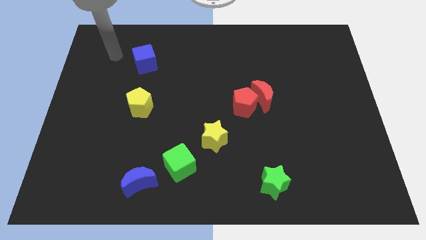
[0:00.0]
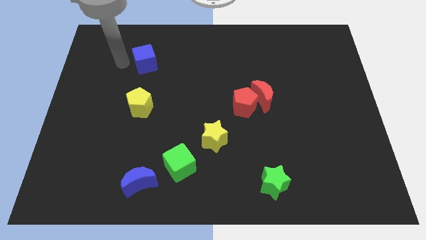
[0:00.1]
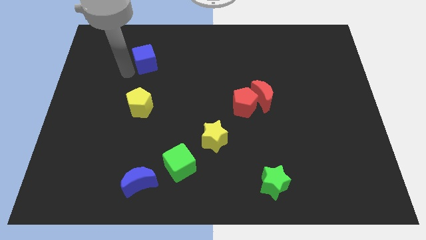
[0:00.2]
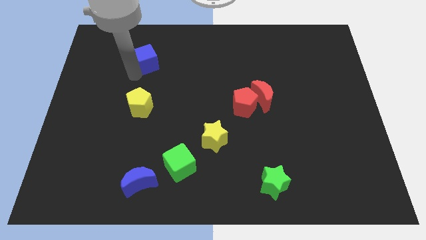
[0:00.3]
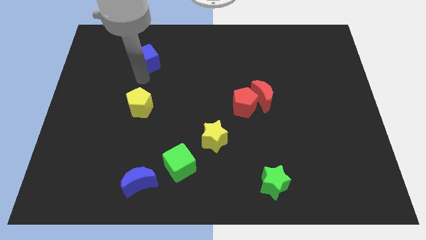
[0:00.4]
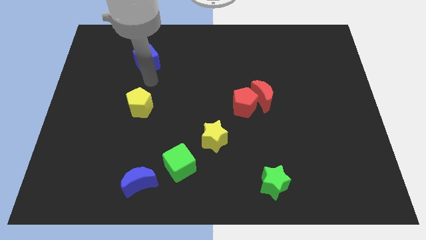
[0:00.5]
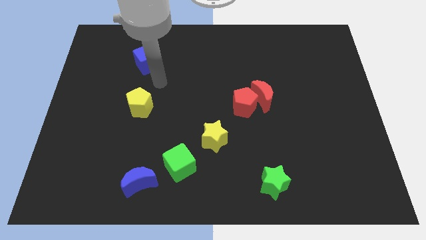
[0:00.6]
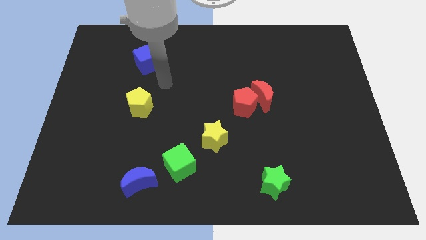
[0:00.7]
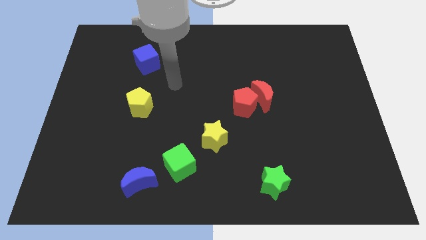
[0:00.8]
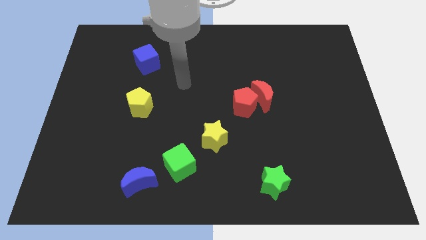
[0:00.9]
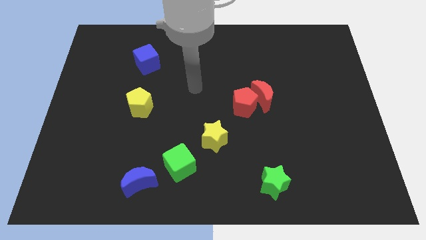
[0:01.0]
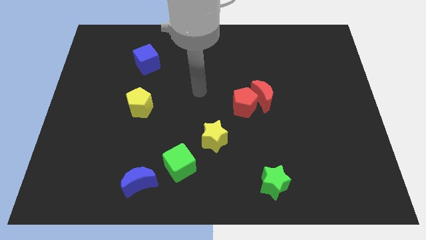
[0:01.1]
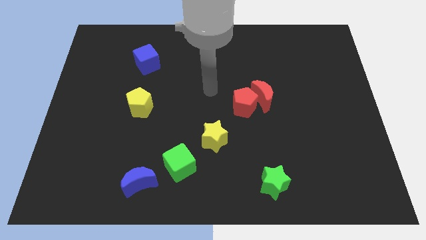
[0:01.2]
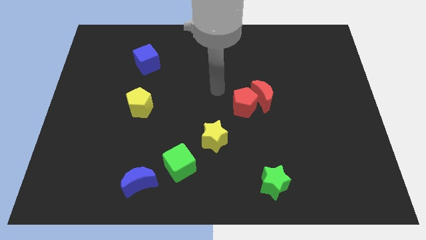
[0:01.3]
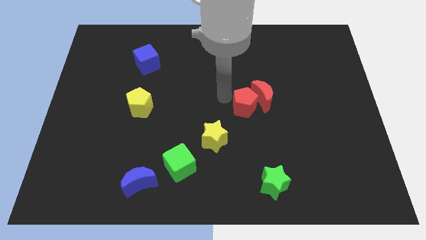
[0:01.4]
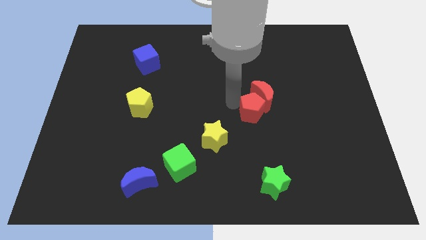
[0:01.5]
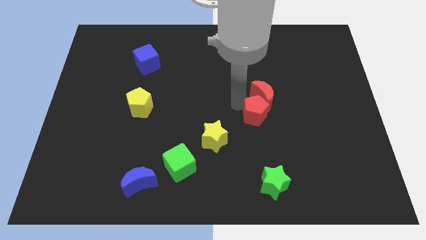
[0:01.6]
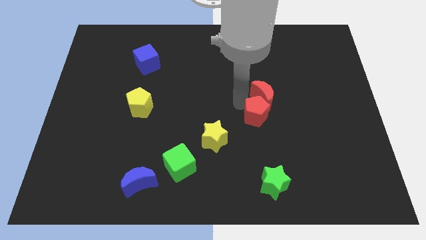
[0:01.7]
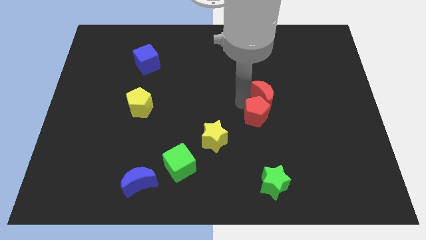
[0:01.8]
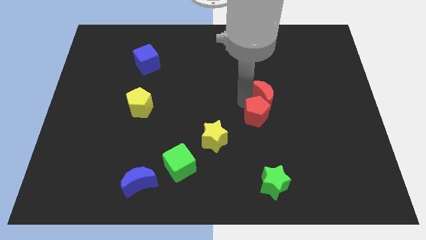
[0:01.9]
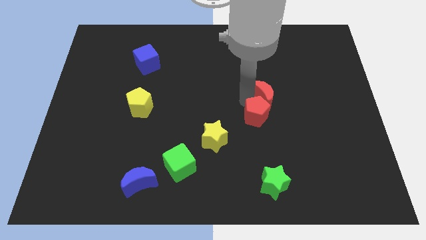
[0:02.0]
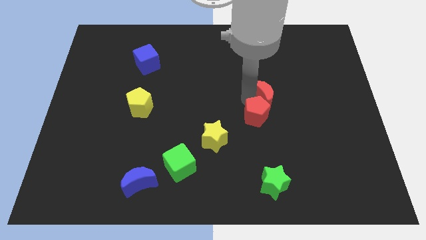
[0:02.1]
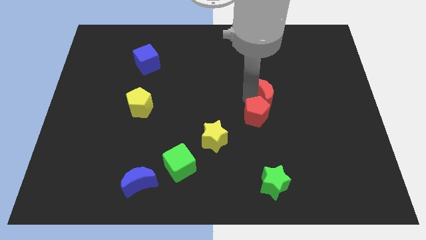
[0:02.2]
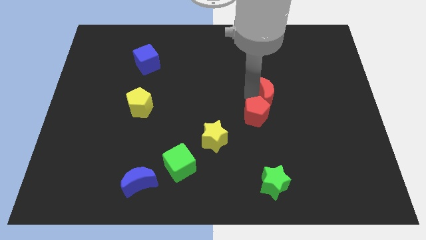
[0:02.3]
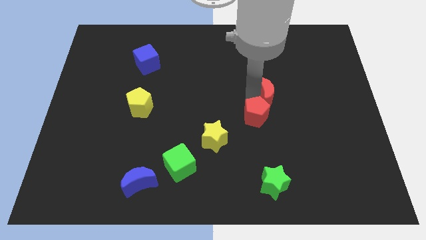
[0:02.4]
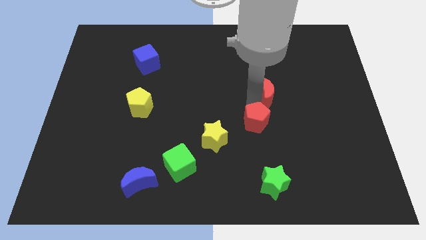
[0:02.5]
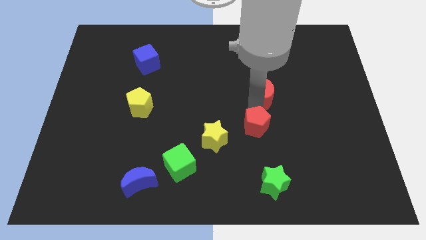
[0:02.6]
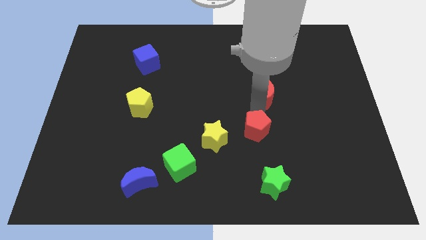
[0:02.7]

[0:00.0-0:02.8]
pull the red moon apart from the red pentagon

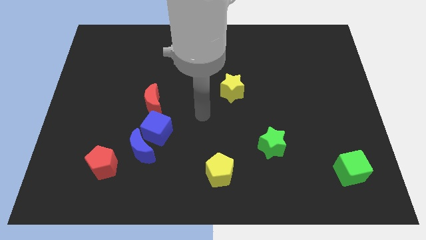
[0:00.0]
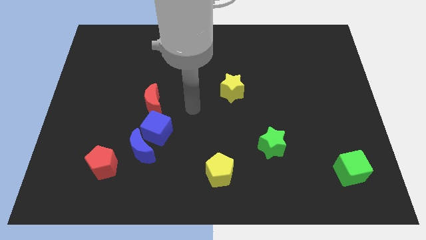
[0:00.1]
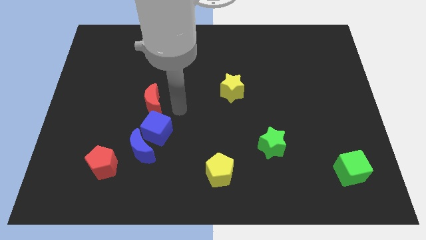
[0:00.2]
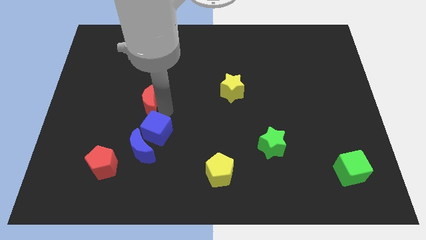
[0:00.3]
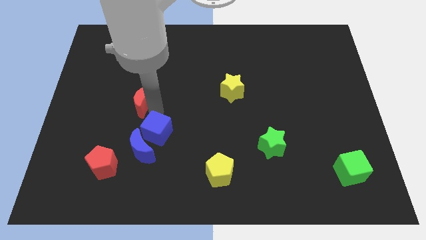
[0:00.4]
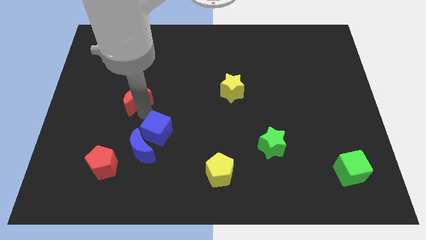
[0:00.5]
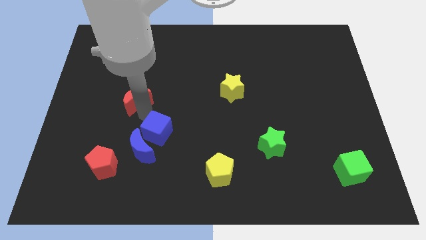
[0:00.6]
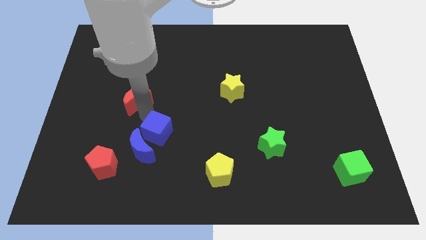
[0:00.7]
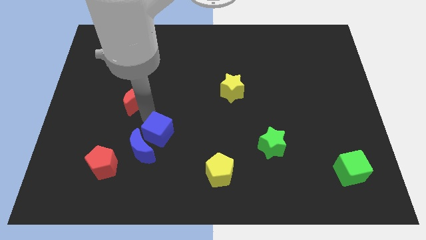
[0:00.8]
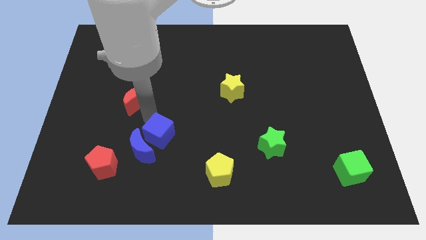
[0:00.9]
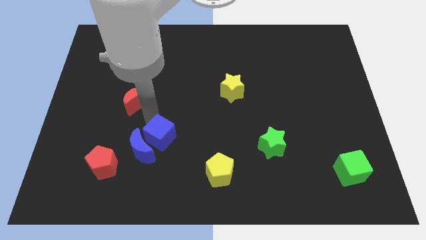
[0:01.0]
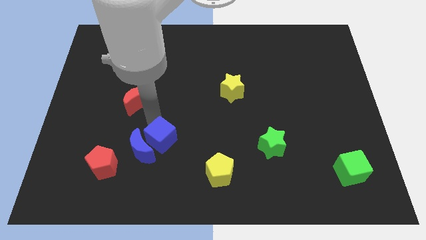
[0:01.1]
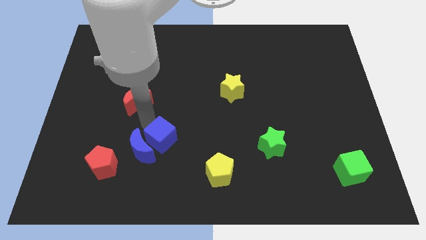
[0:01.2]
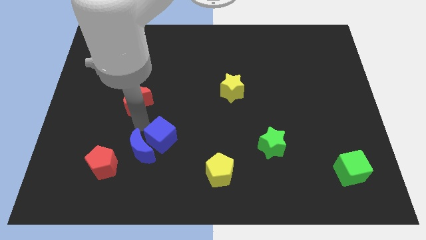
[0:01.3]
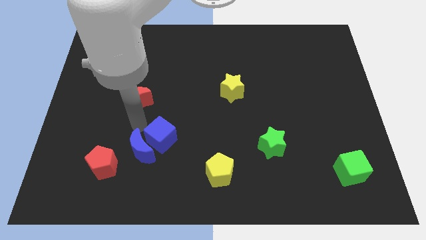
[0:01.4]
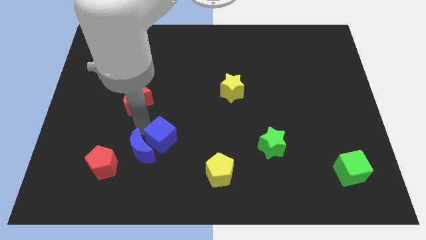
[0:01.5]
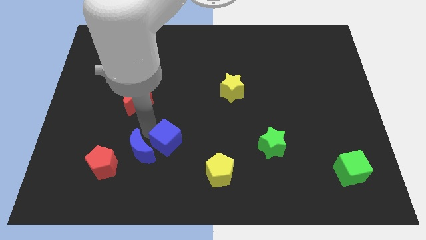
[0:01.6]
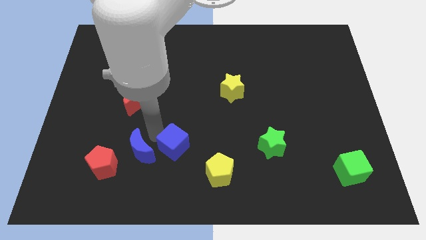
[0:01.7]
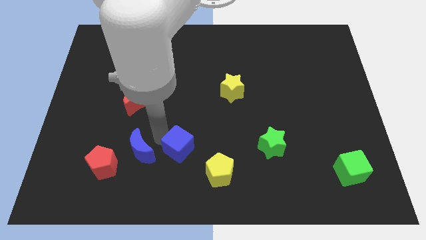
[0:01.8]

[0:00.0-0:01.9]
pull the blue cube apart from the blue moon and red moon

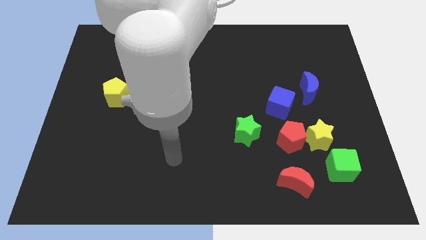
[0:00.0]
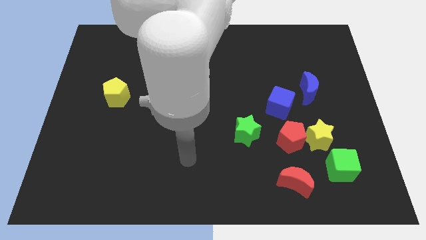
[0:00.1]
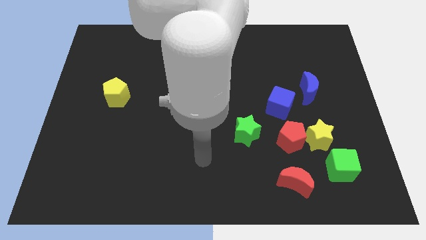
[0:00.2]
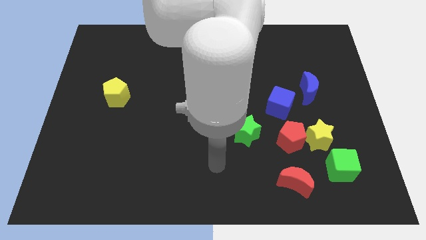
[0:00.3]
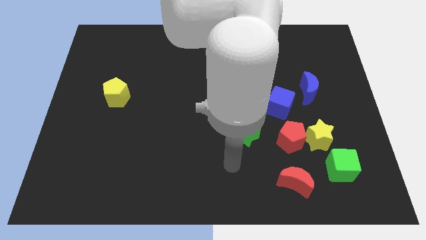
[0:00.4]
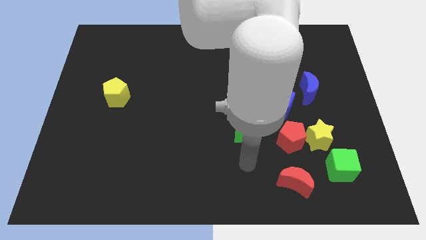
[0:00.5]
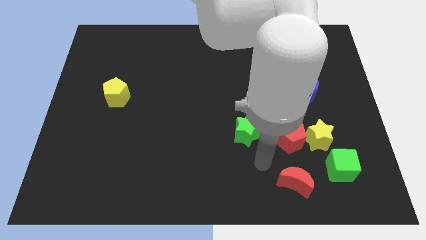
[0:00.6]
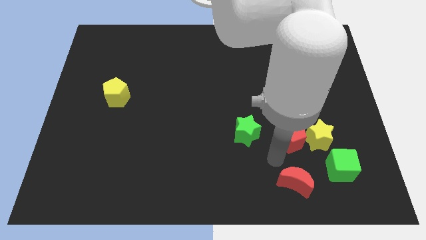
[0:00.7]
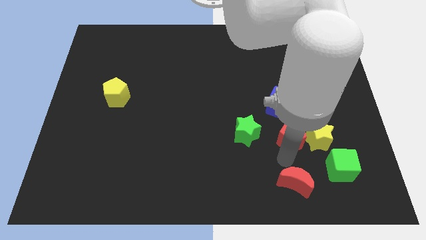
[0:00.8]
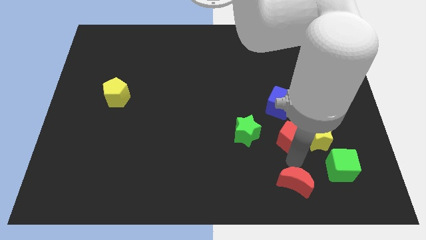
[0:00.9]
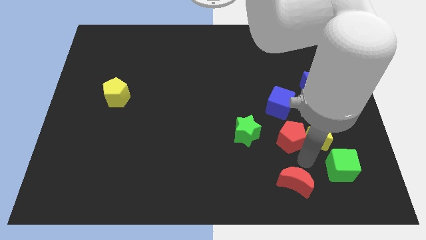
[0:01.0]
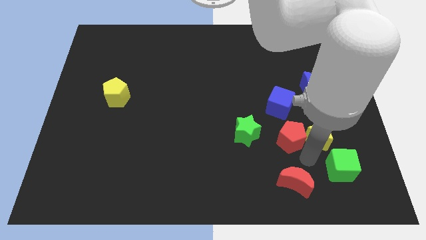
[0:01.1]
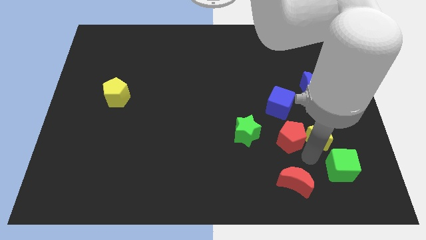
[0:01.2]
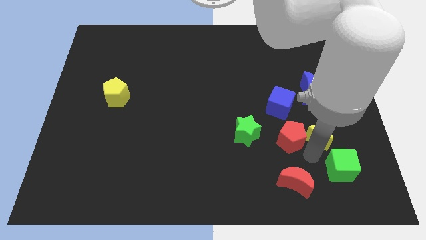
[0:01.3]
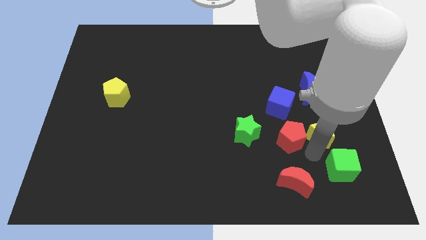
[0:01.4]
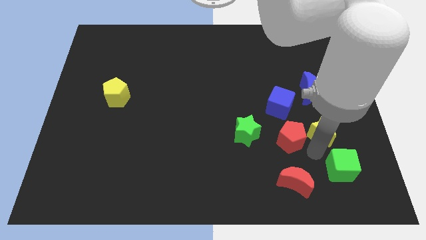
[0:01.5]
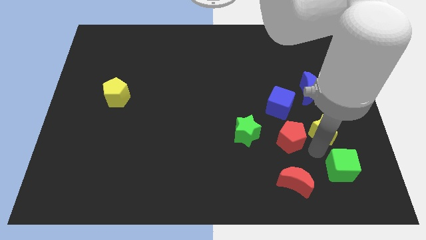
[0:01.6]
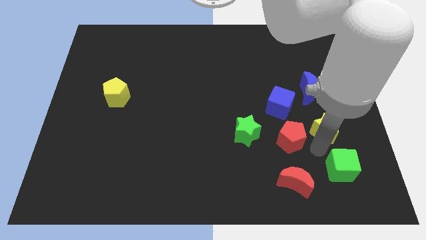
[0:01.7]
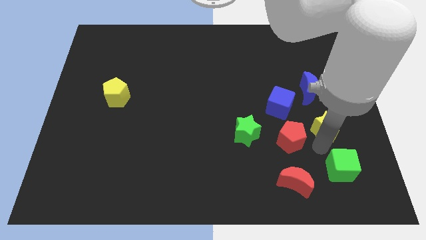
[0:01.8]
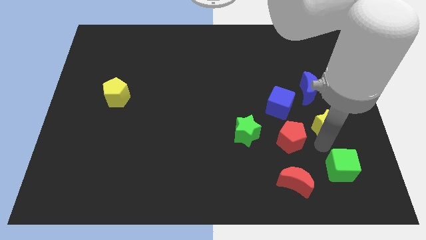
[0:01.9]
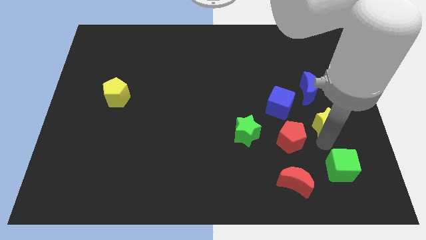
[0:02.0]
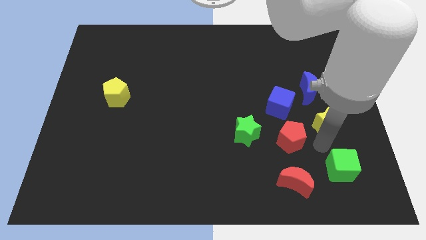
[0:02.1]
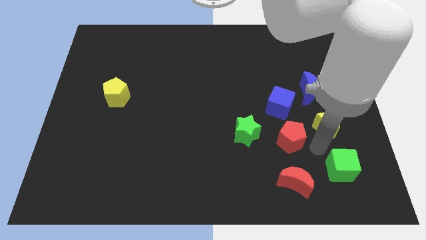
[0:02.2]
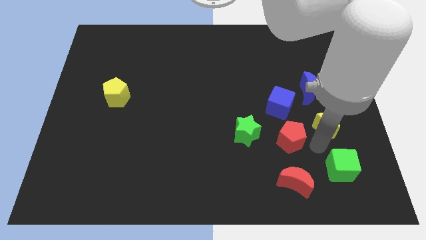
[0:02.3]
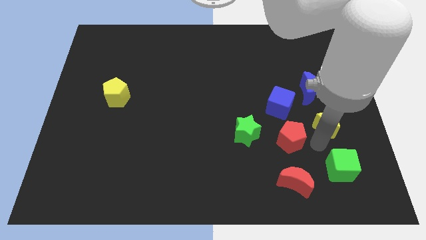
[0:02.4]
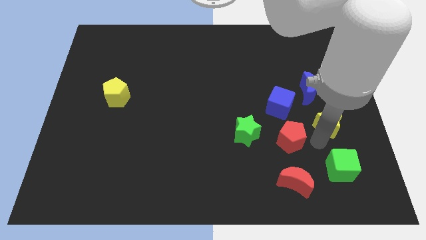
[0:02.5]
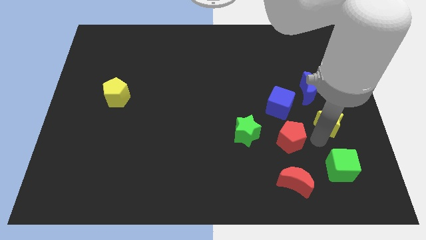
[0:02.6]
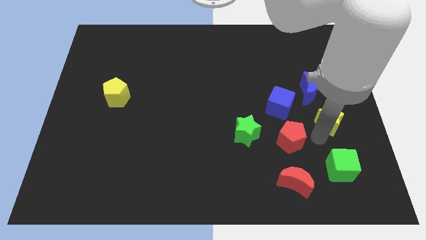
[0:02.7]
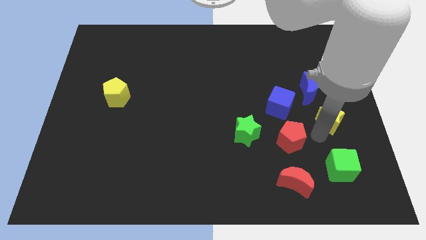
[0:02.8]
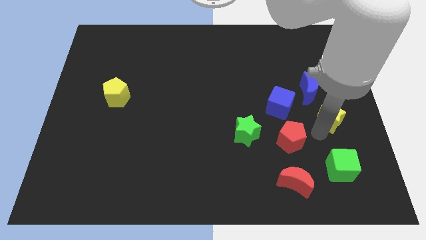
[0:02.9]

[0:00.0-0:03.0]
pull the yellow star apart from the red pentagon and green cube

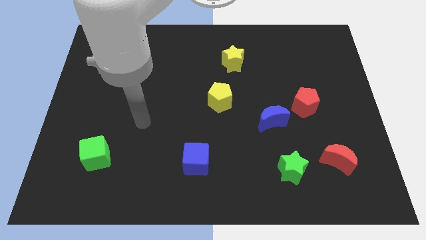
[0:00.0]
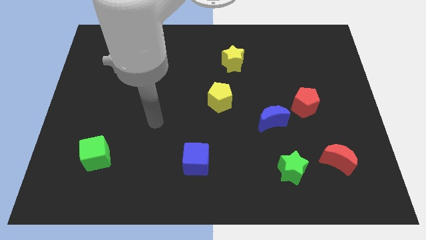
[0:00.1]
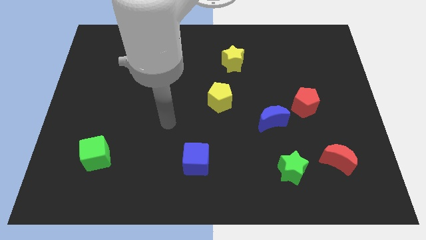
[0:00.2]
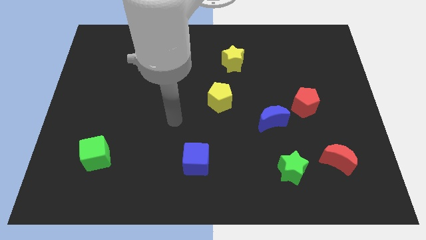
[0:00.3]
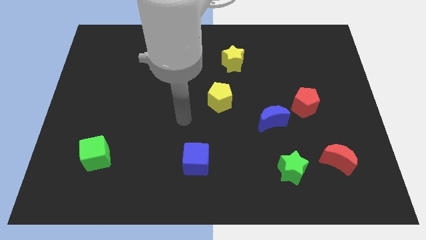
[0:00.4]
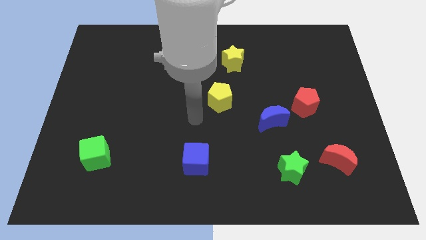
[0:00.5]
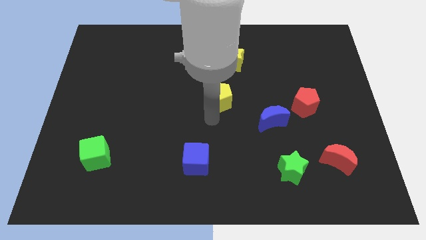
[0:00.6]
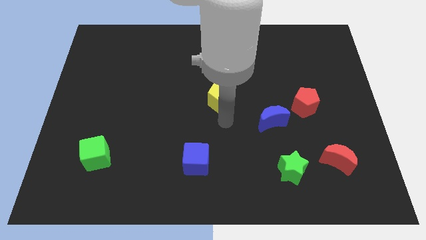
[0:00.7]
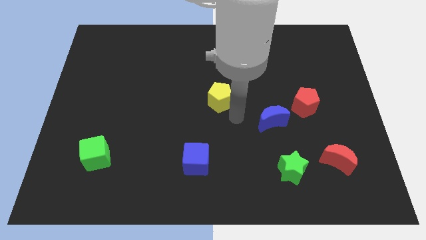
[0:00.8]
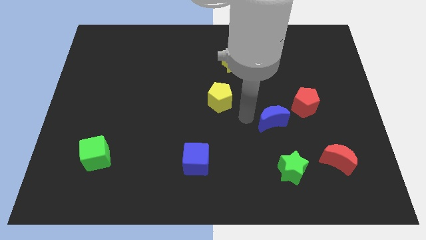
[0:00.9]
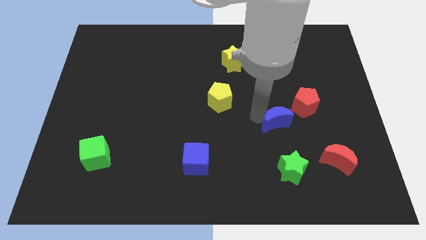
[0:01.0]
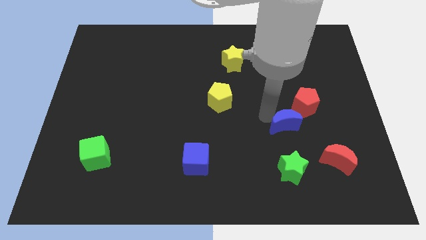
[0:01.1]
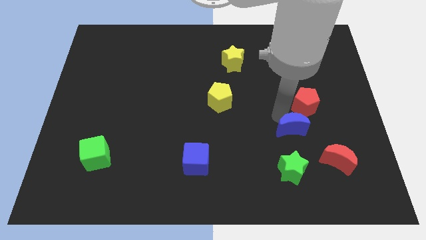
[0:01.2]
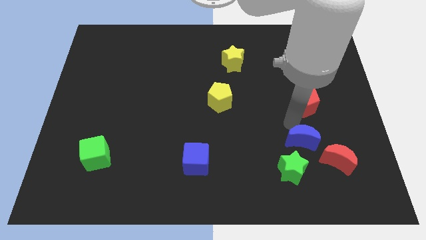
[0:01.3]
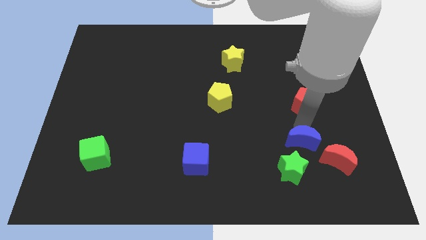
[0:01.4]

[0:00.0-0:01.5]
move the red pentagon away from the blue moon

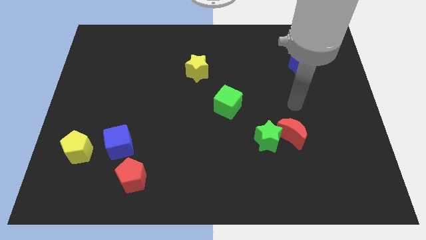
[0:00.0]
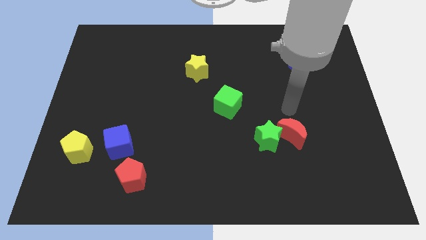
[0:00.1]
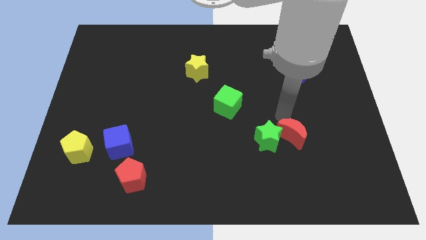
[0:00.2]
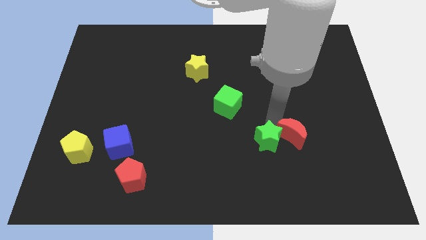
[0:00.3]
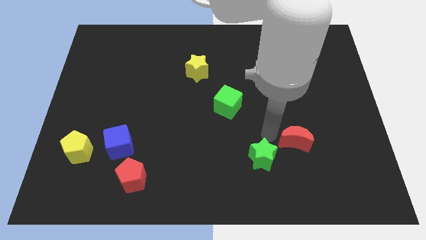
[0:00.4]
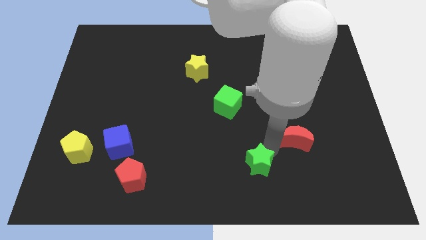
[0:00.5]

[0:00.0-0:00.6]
pull the red moon apart from the green star
